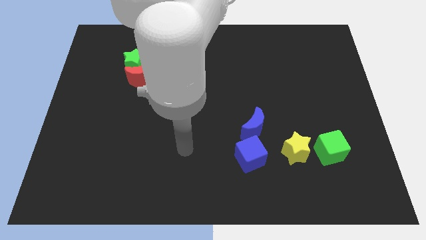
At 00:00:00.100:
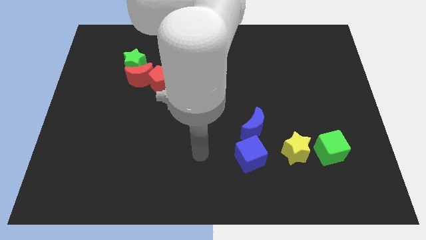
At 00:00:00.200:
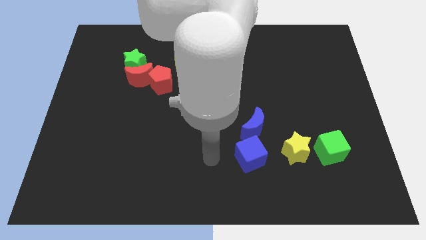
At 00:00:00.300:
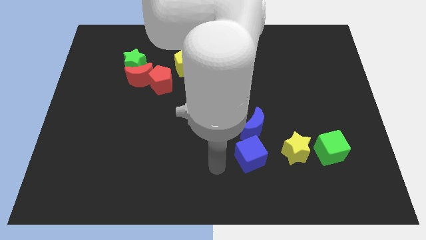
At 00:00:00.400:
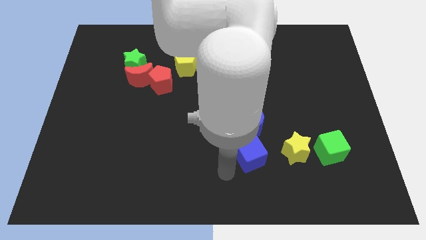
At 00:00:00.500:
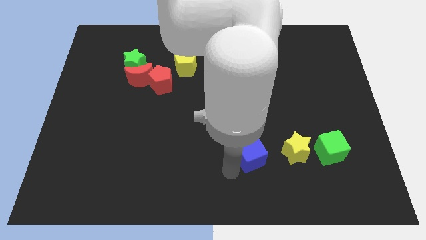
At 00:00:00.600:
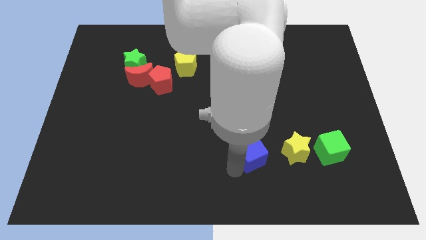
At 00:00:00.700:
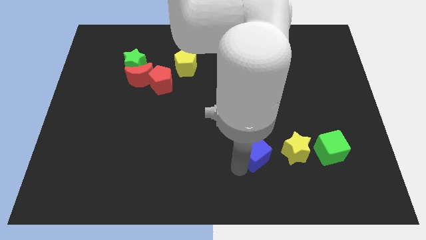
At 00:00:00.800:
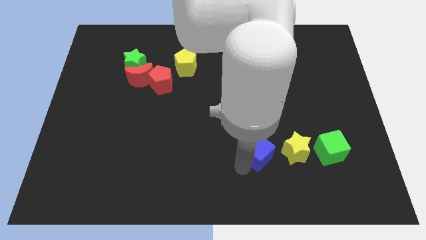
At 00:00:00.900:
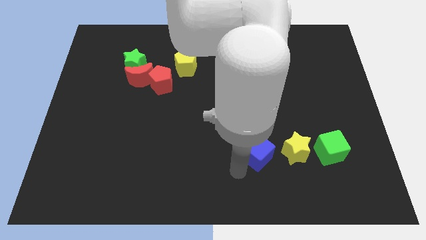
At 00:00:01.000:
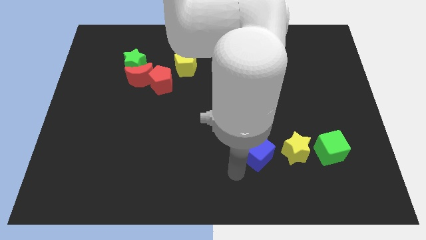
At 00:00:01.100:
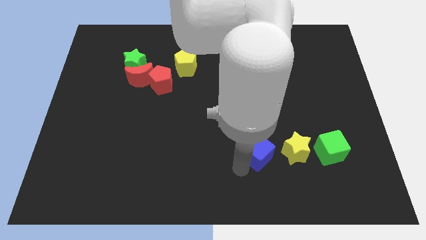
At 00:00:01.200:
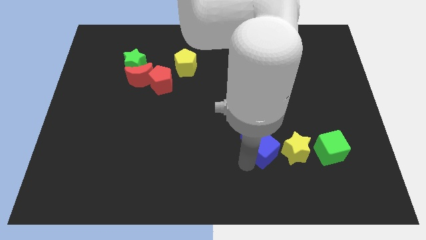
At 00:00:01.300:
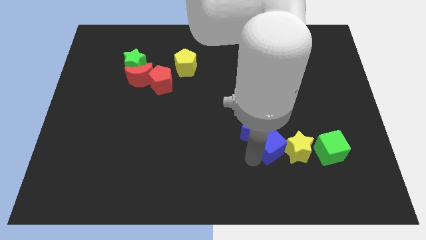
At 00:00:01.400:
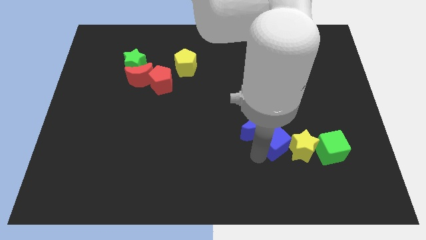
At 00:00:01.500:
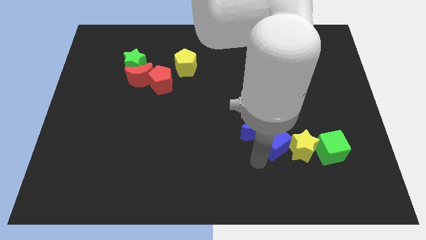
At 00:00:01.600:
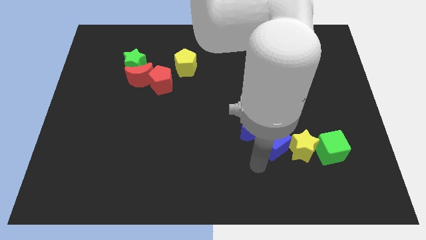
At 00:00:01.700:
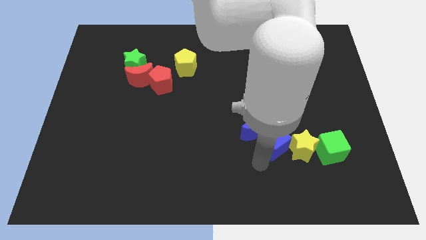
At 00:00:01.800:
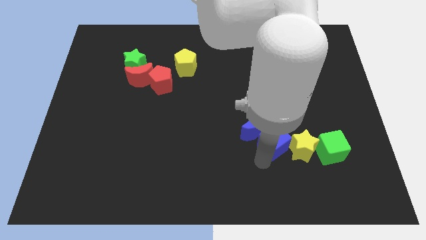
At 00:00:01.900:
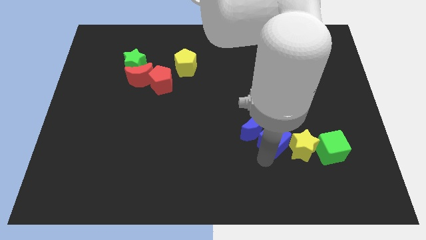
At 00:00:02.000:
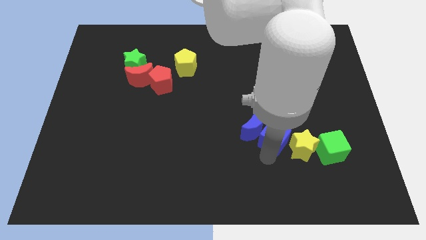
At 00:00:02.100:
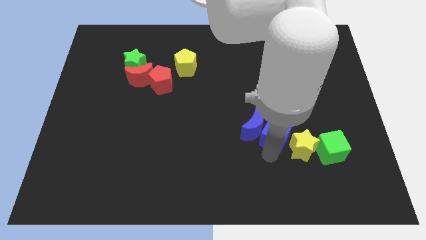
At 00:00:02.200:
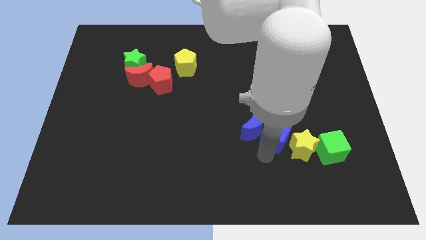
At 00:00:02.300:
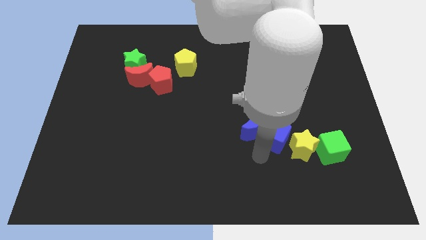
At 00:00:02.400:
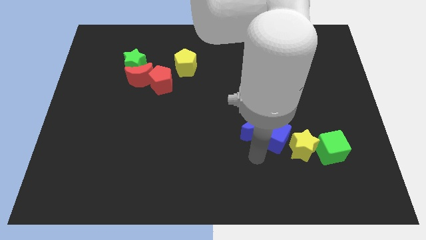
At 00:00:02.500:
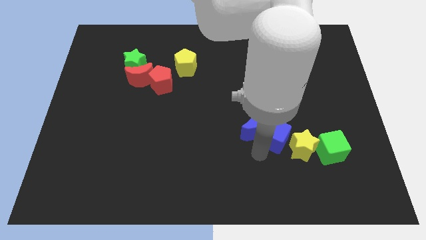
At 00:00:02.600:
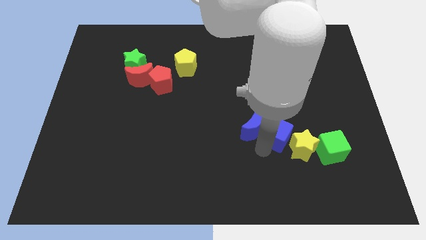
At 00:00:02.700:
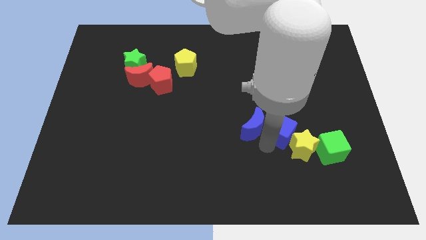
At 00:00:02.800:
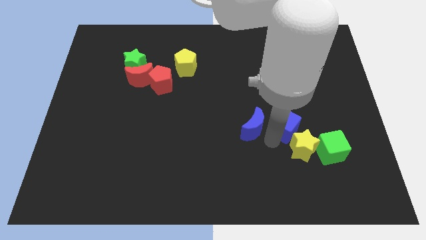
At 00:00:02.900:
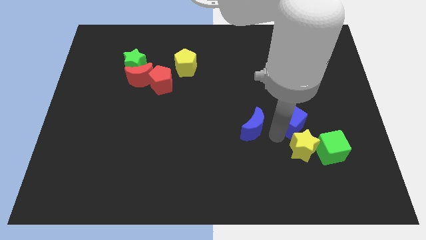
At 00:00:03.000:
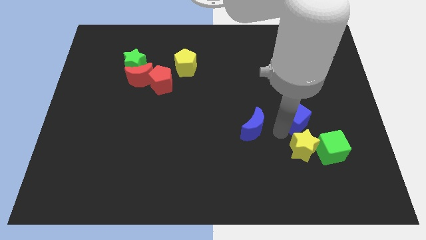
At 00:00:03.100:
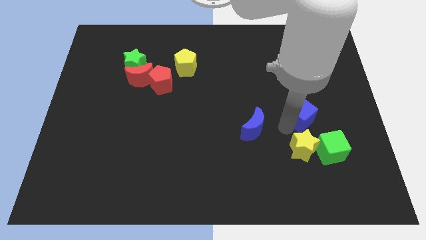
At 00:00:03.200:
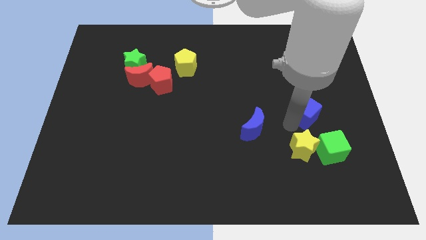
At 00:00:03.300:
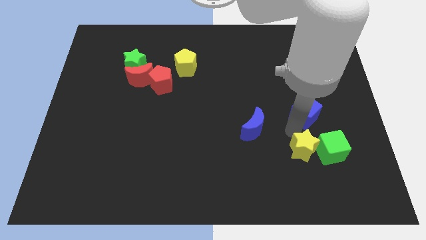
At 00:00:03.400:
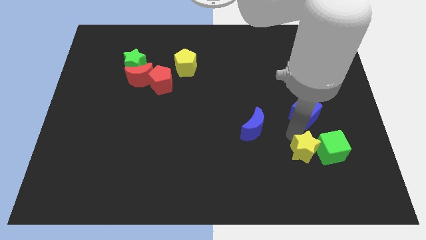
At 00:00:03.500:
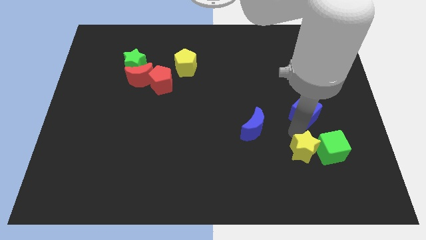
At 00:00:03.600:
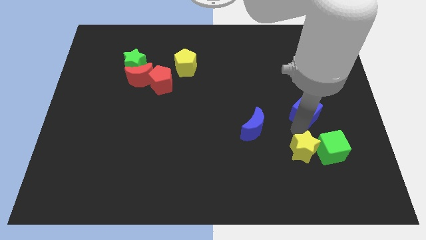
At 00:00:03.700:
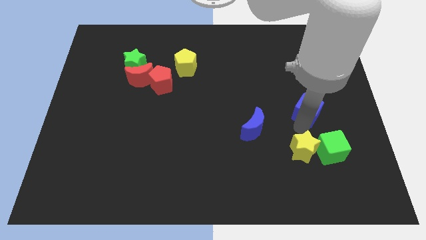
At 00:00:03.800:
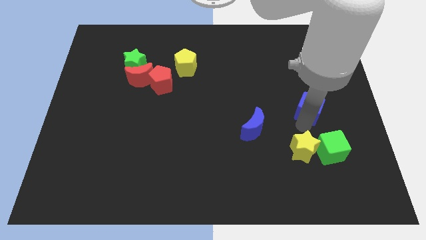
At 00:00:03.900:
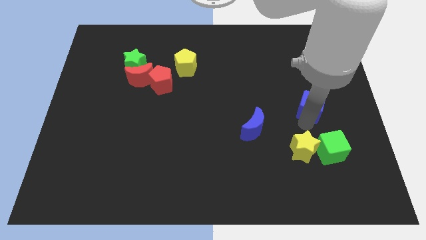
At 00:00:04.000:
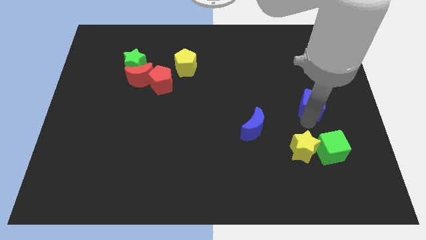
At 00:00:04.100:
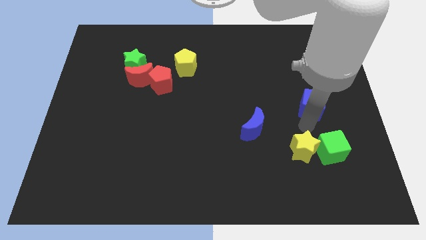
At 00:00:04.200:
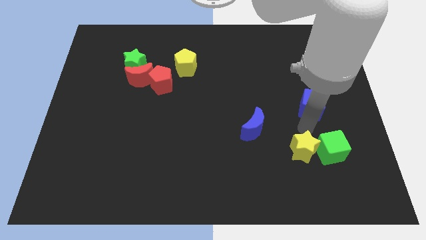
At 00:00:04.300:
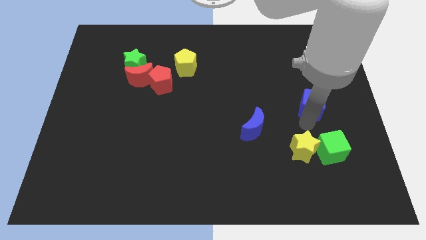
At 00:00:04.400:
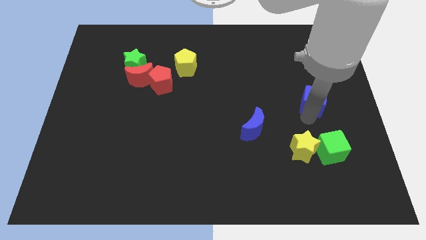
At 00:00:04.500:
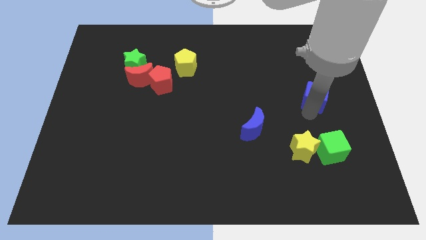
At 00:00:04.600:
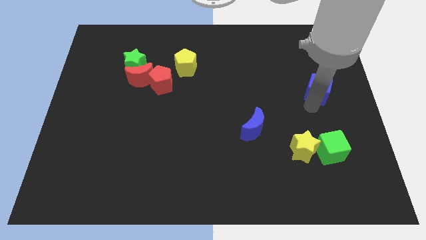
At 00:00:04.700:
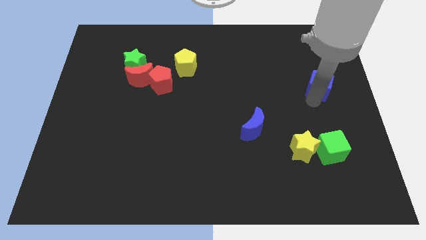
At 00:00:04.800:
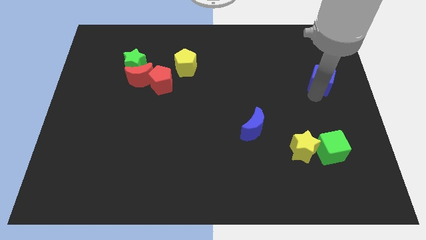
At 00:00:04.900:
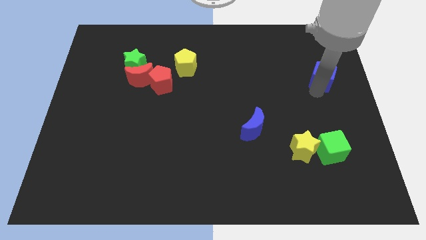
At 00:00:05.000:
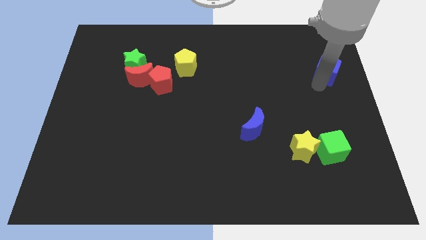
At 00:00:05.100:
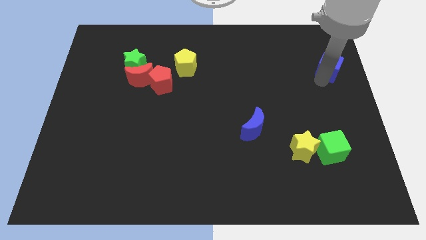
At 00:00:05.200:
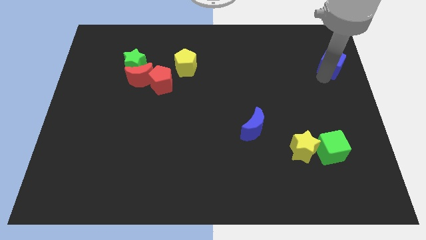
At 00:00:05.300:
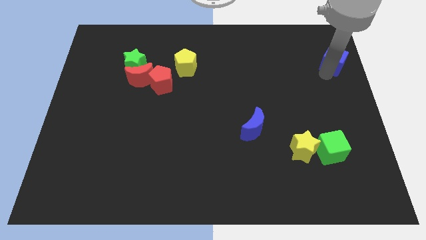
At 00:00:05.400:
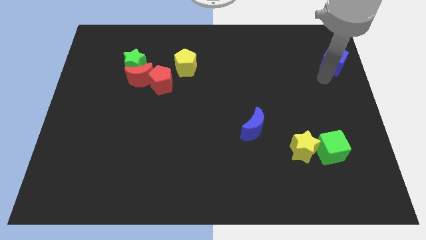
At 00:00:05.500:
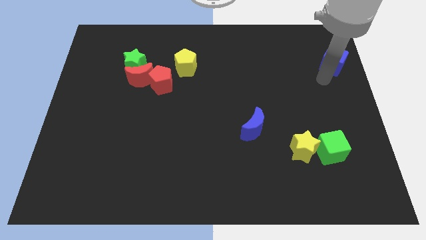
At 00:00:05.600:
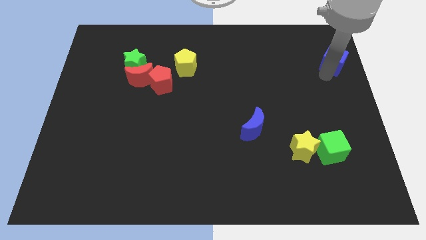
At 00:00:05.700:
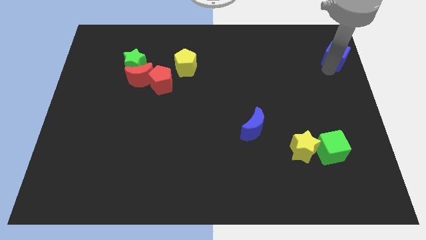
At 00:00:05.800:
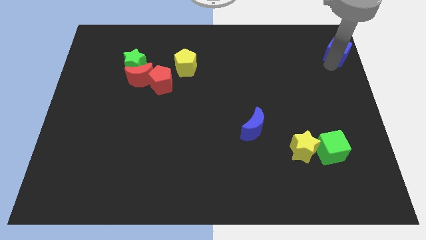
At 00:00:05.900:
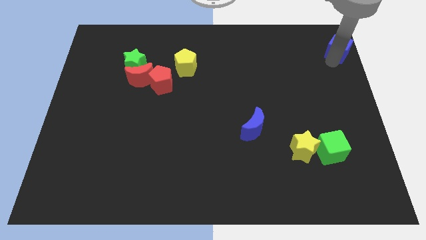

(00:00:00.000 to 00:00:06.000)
push the blue cube to the top right of the board
